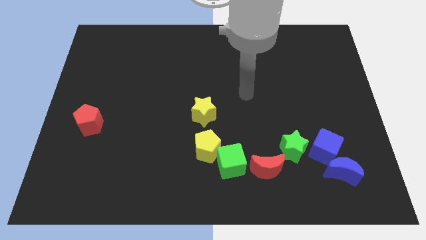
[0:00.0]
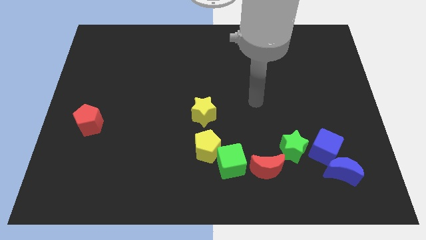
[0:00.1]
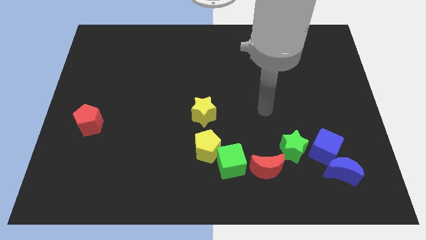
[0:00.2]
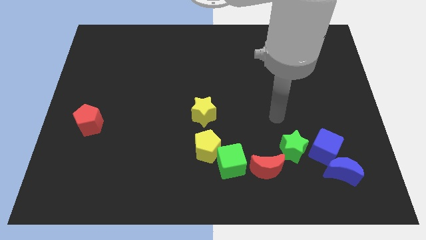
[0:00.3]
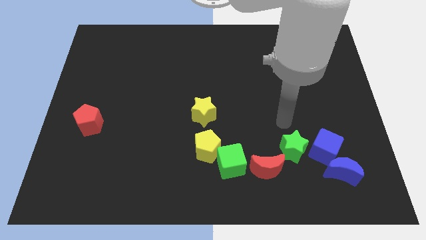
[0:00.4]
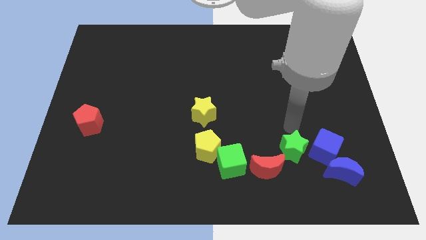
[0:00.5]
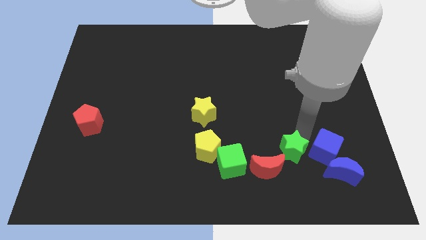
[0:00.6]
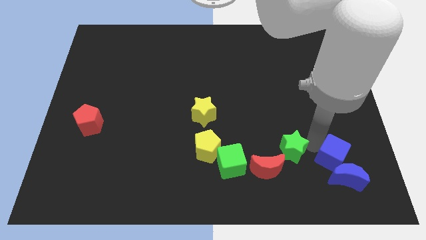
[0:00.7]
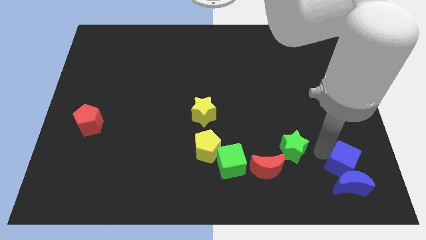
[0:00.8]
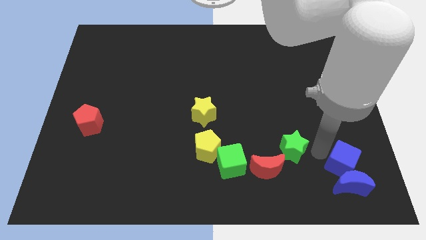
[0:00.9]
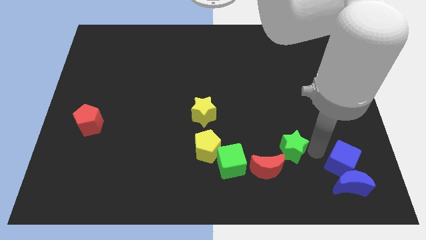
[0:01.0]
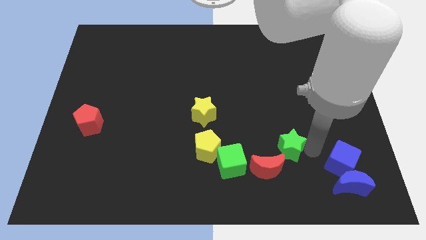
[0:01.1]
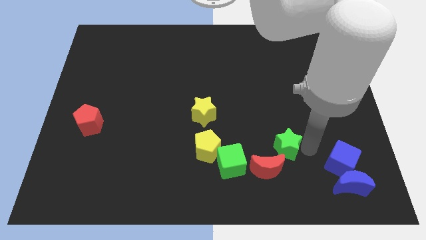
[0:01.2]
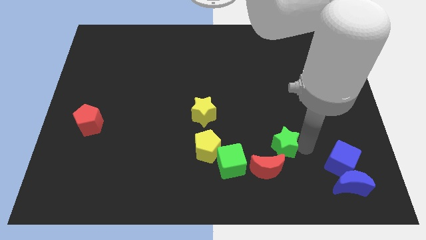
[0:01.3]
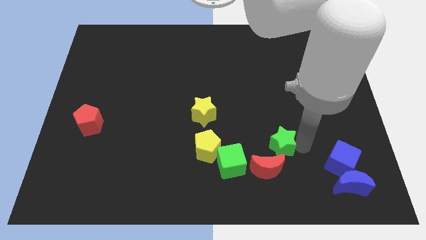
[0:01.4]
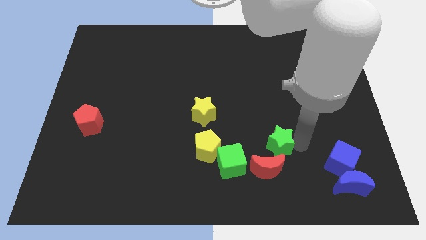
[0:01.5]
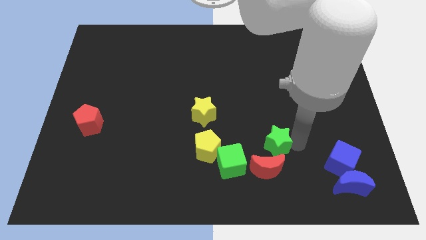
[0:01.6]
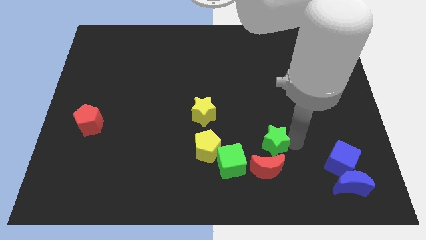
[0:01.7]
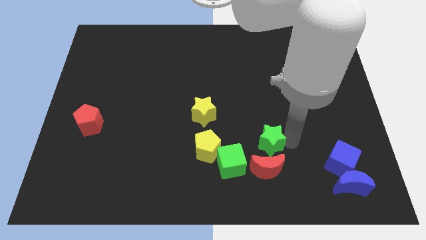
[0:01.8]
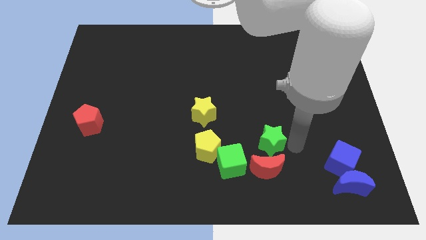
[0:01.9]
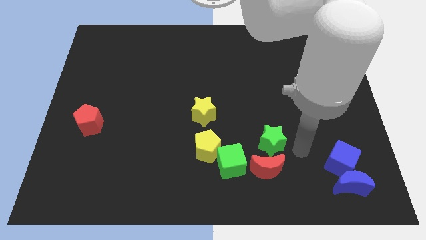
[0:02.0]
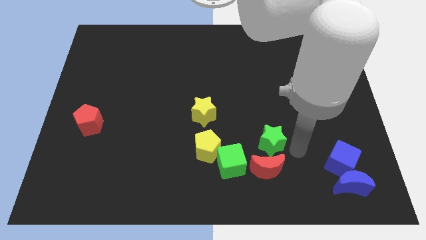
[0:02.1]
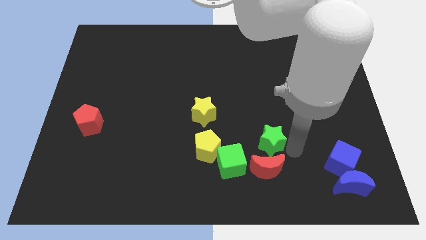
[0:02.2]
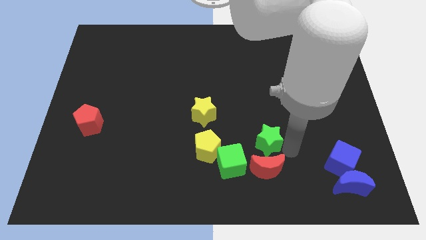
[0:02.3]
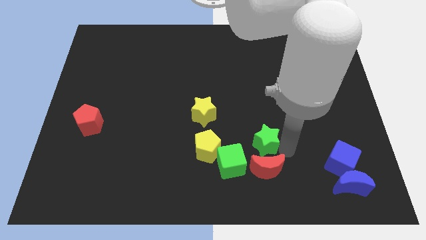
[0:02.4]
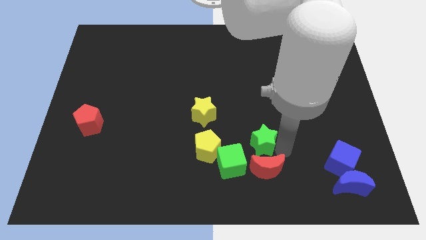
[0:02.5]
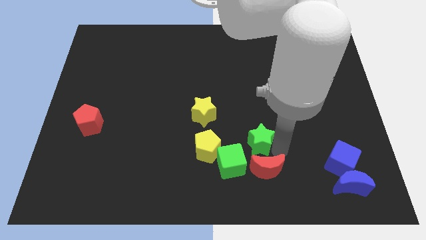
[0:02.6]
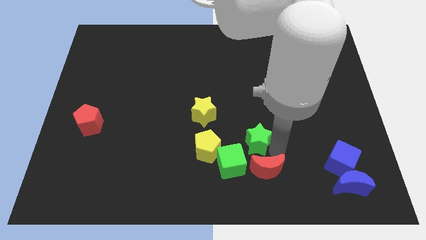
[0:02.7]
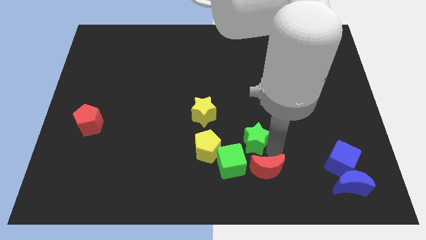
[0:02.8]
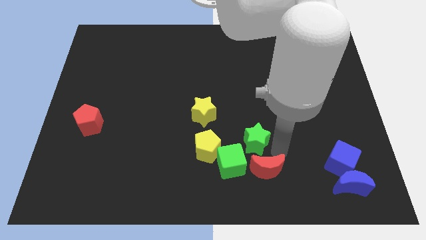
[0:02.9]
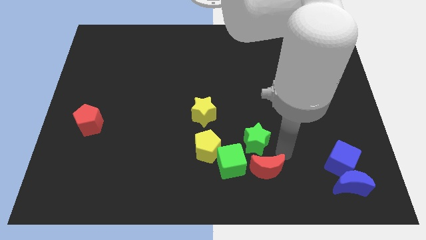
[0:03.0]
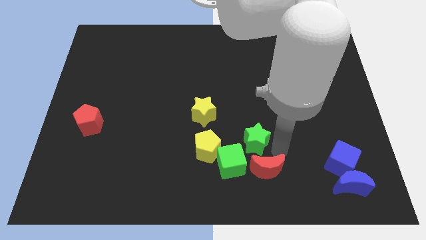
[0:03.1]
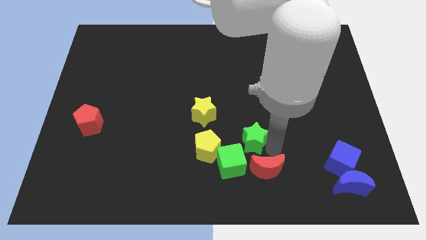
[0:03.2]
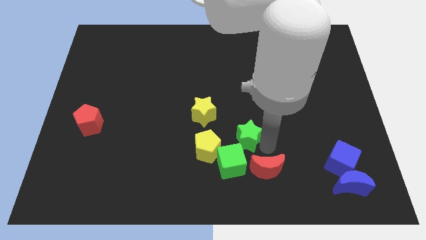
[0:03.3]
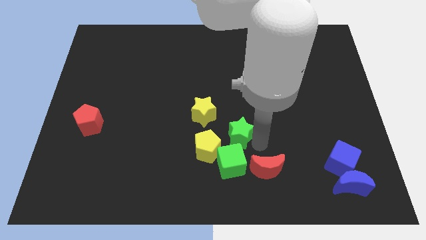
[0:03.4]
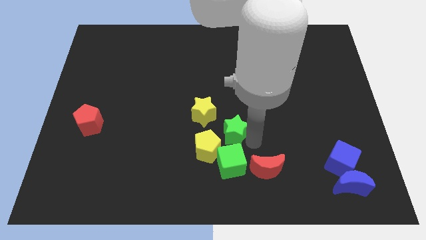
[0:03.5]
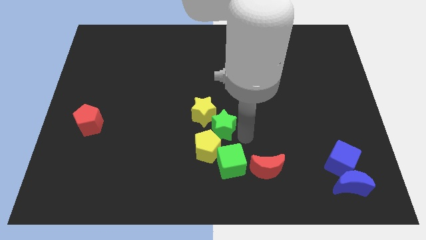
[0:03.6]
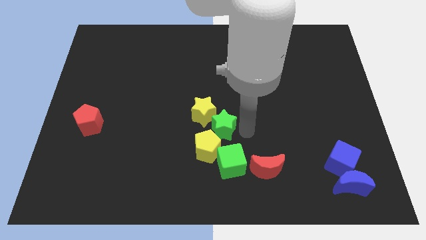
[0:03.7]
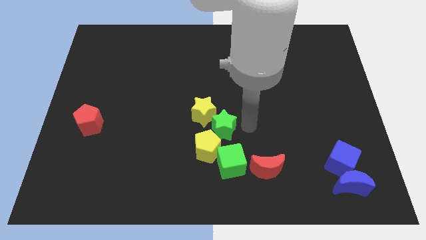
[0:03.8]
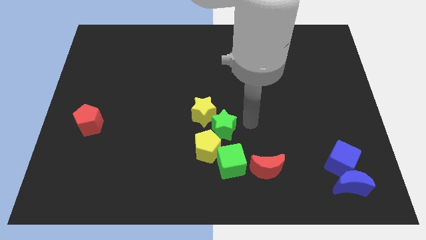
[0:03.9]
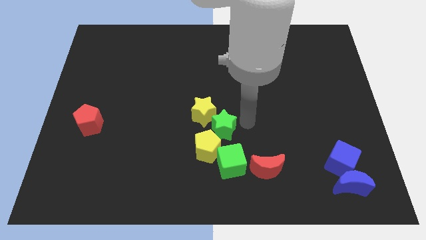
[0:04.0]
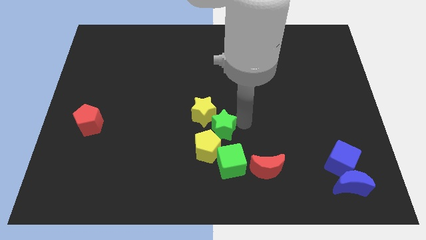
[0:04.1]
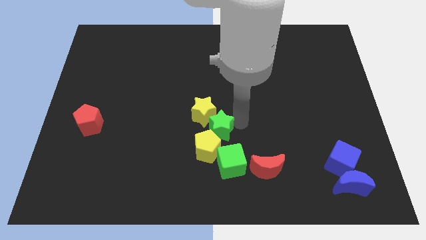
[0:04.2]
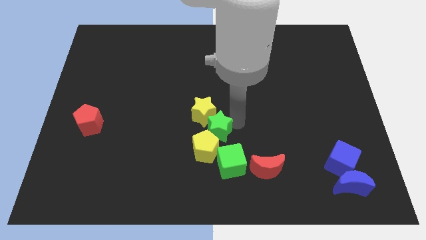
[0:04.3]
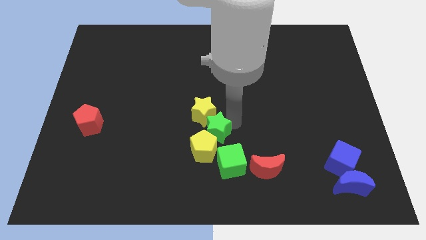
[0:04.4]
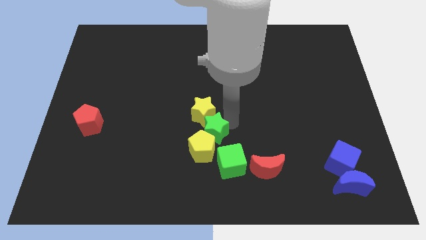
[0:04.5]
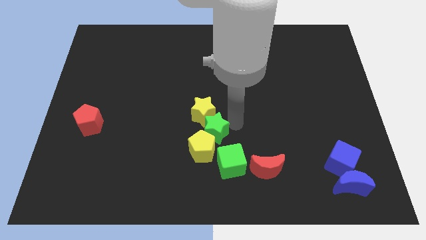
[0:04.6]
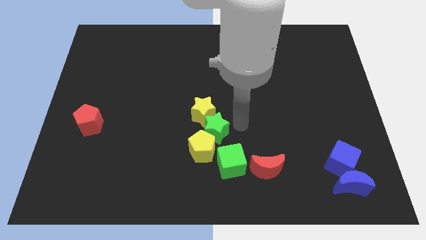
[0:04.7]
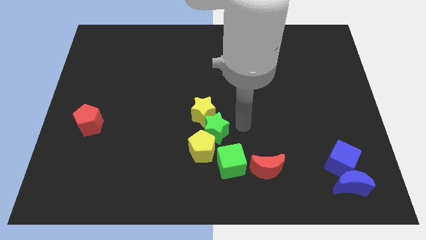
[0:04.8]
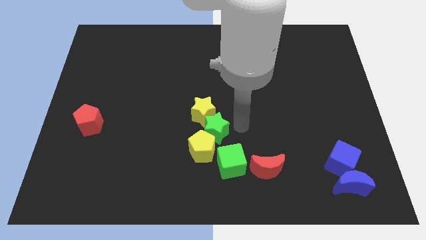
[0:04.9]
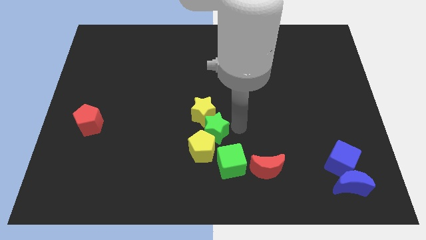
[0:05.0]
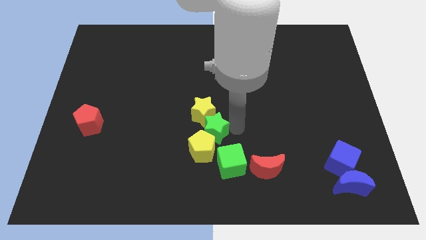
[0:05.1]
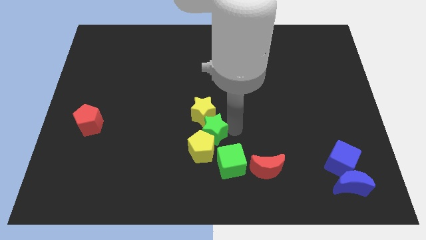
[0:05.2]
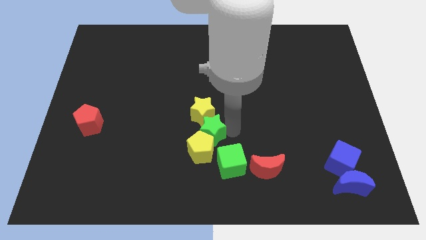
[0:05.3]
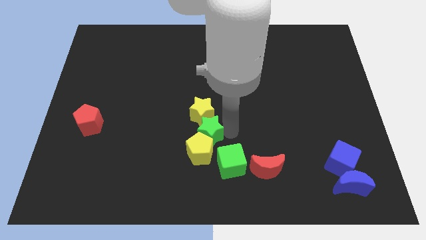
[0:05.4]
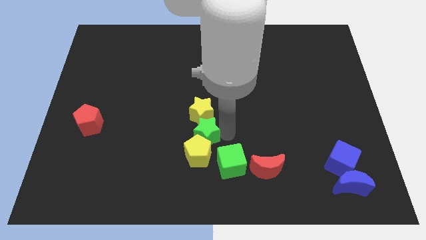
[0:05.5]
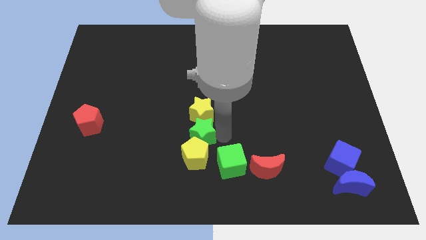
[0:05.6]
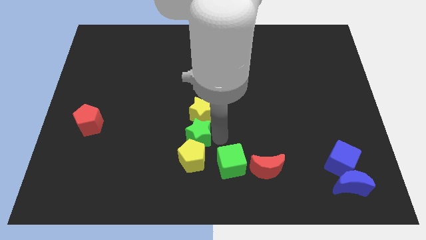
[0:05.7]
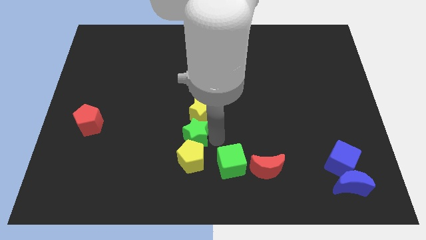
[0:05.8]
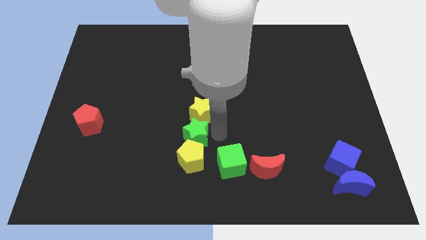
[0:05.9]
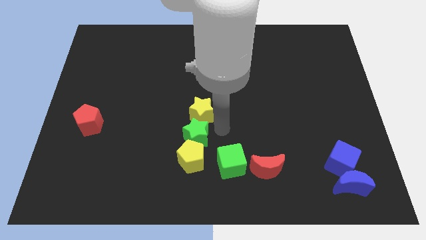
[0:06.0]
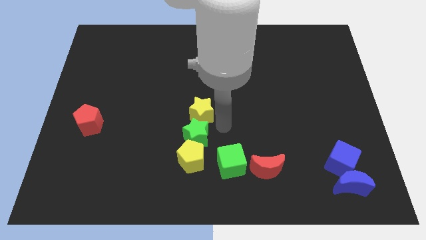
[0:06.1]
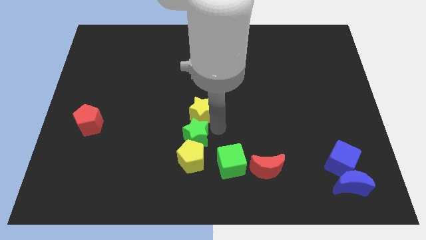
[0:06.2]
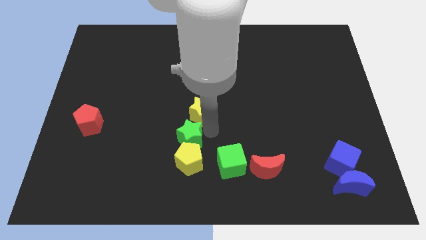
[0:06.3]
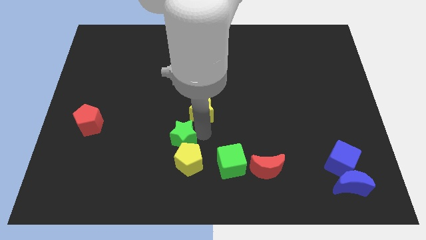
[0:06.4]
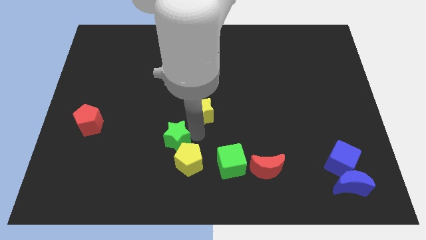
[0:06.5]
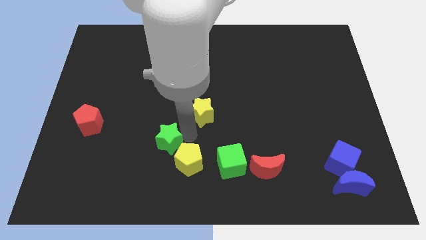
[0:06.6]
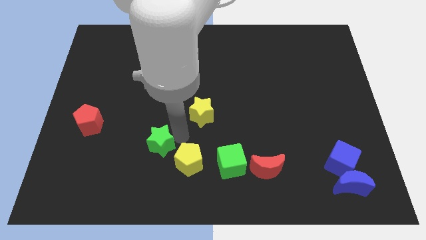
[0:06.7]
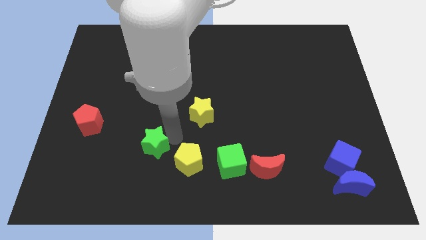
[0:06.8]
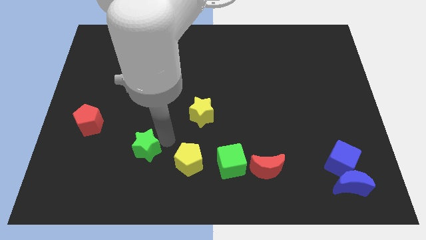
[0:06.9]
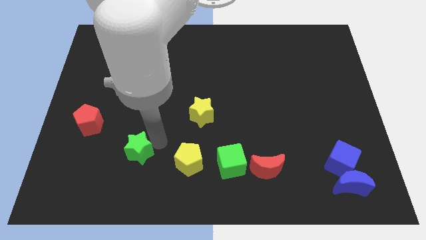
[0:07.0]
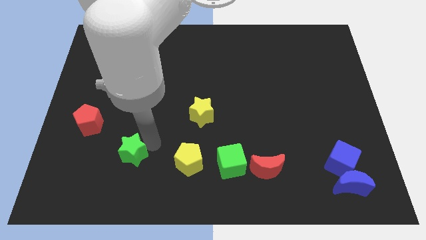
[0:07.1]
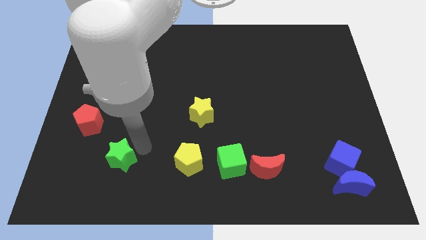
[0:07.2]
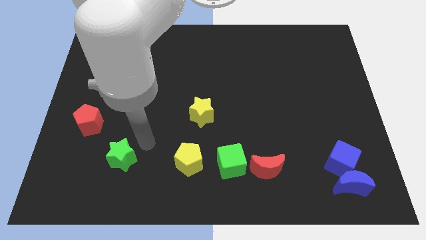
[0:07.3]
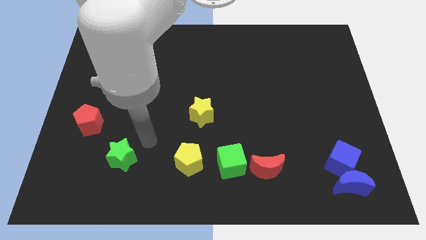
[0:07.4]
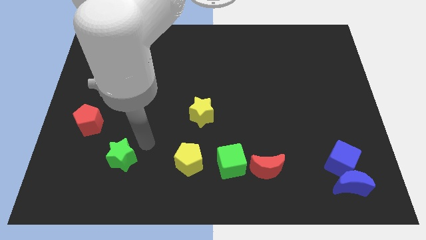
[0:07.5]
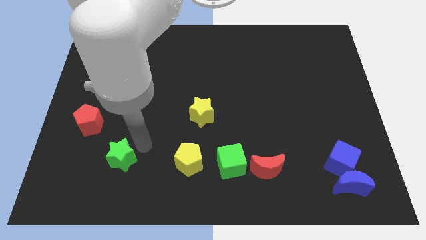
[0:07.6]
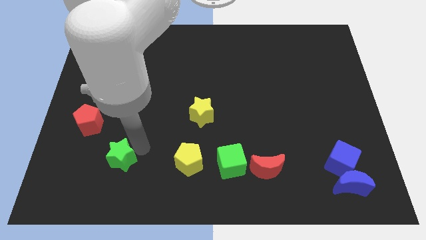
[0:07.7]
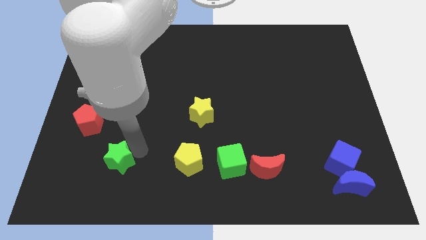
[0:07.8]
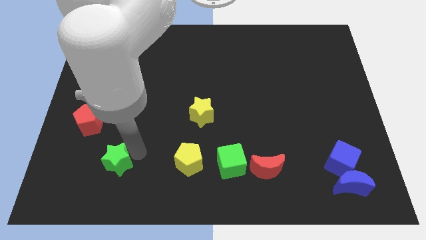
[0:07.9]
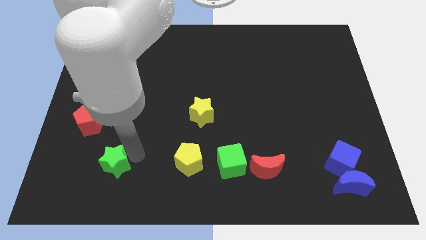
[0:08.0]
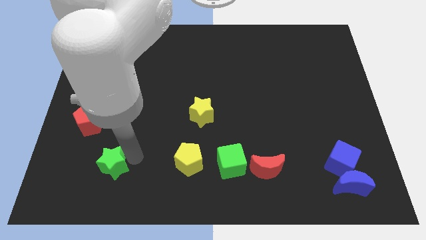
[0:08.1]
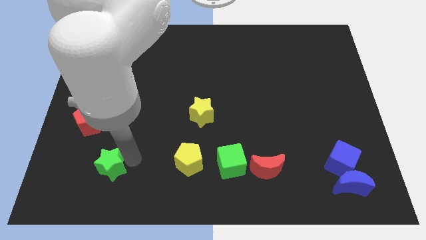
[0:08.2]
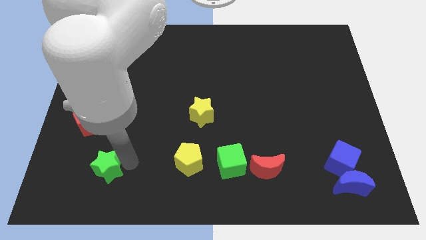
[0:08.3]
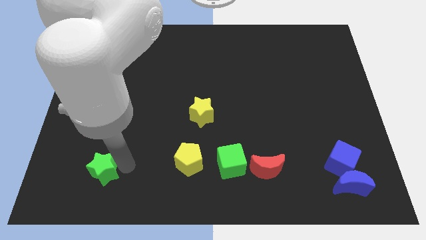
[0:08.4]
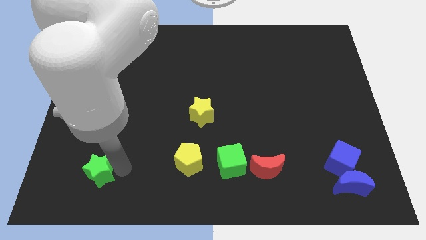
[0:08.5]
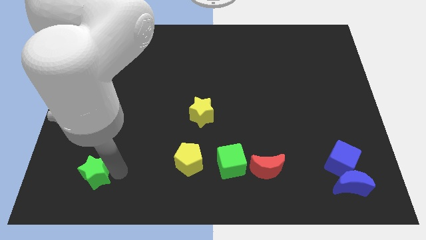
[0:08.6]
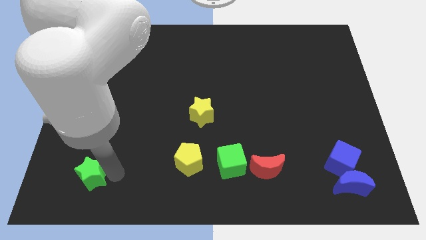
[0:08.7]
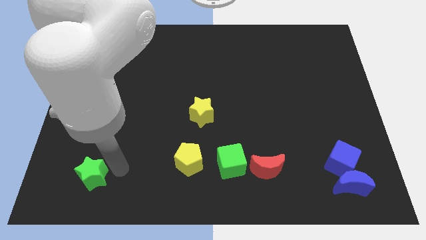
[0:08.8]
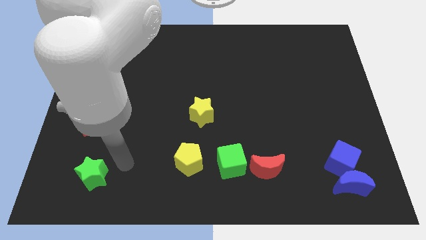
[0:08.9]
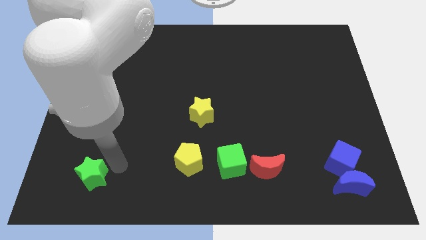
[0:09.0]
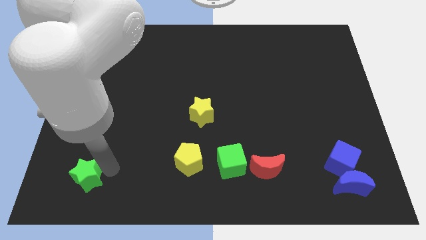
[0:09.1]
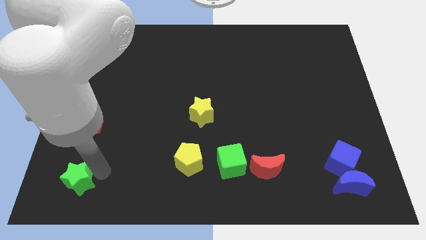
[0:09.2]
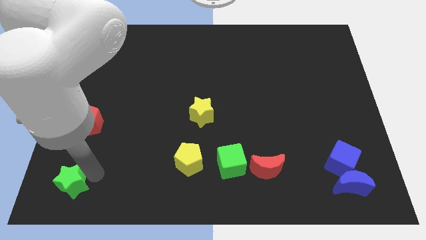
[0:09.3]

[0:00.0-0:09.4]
push the green star to the bottom left
